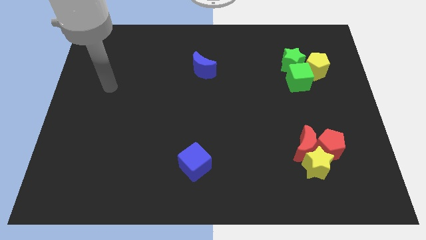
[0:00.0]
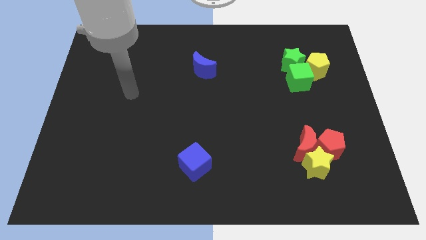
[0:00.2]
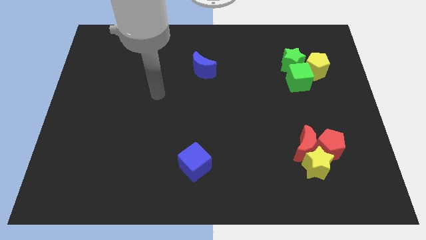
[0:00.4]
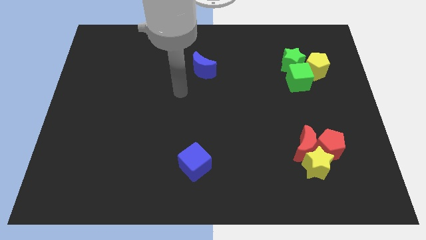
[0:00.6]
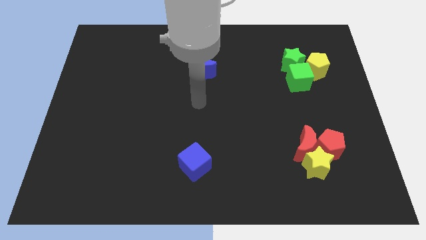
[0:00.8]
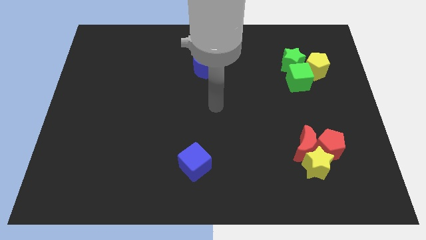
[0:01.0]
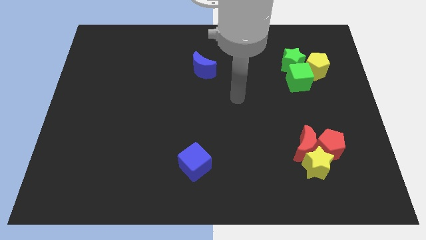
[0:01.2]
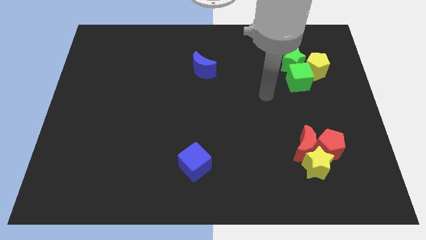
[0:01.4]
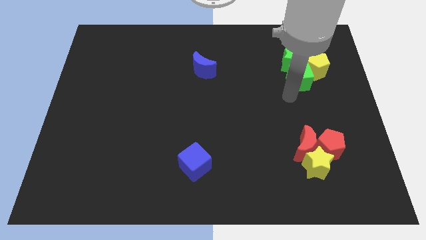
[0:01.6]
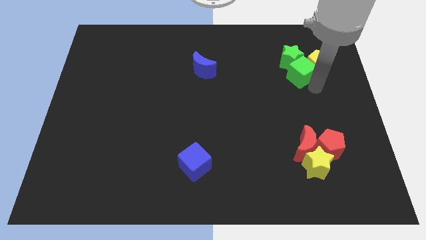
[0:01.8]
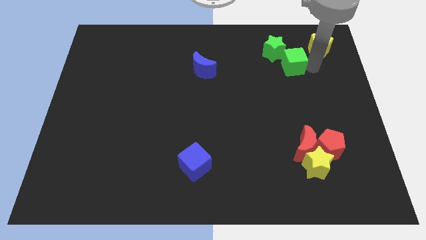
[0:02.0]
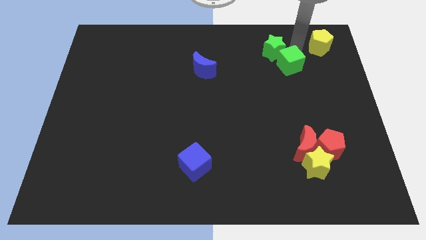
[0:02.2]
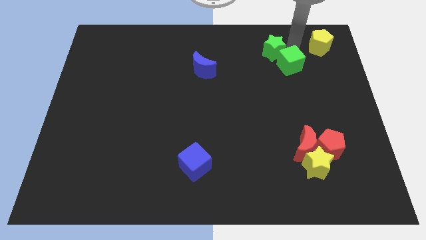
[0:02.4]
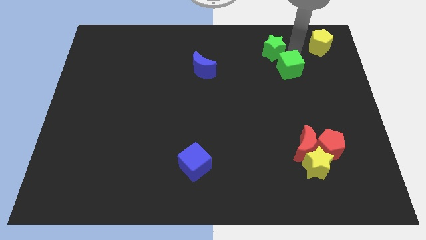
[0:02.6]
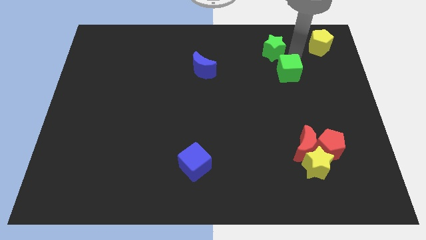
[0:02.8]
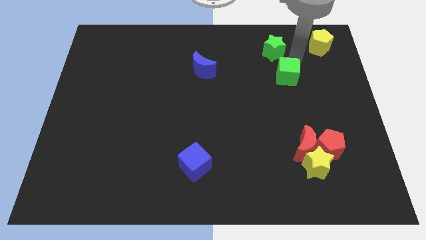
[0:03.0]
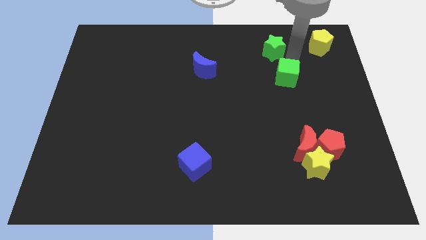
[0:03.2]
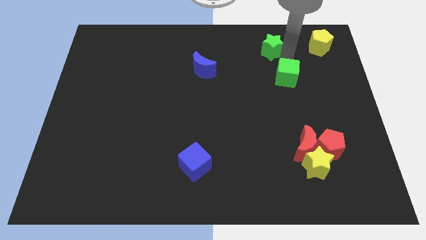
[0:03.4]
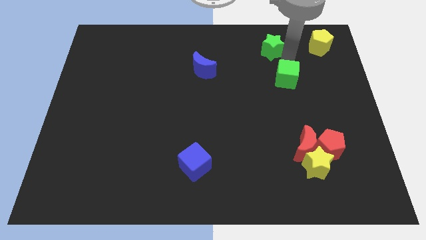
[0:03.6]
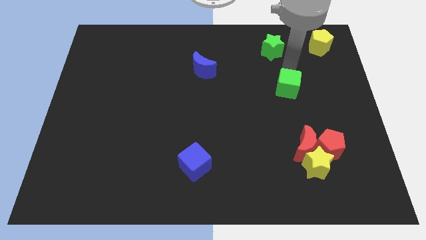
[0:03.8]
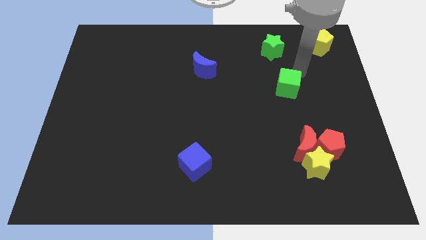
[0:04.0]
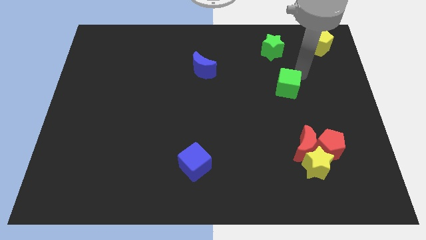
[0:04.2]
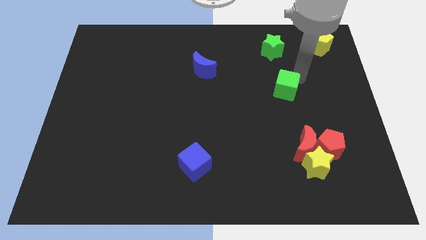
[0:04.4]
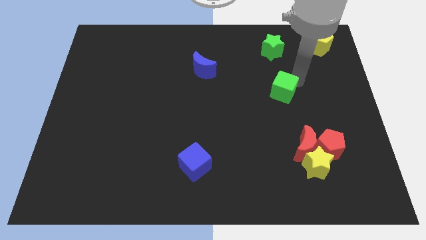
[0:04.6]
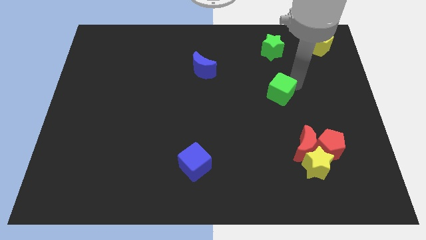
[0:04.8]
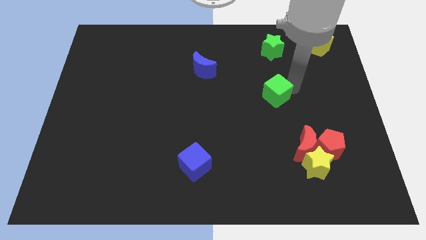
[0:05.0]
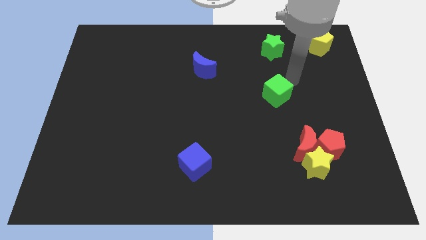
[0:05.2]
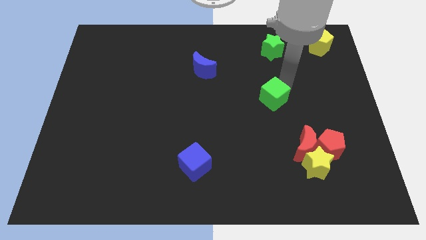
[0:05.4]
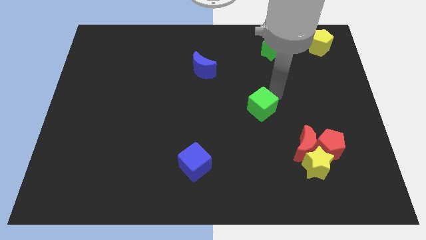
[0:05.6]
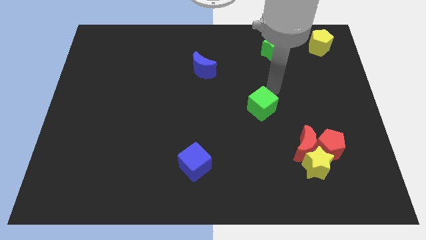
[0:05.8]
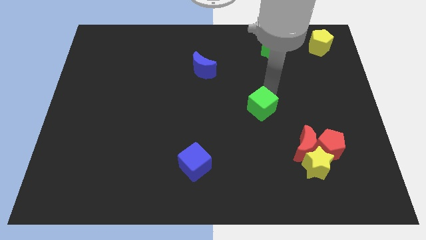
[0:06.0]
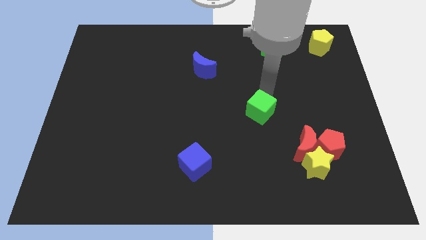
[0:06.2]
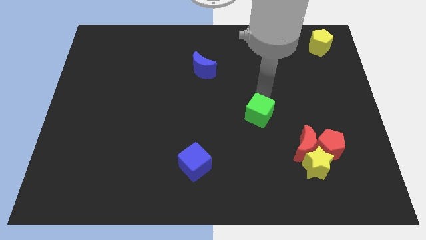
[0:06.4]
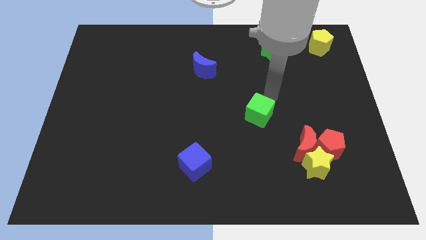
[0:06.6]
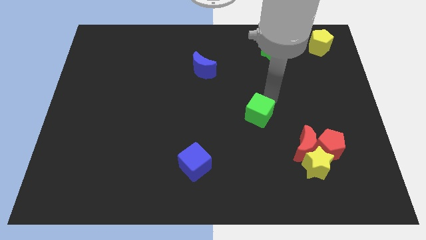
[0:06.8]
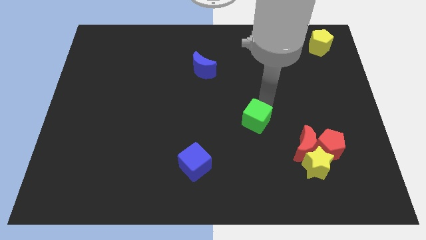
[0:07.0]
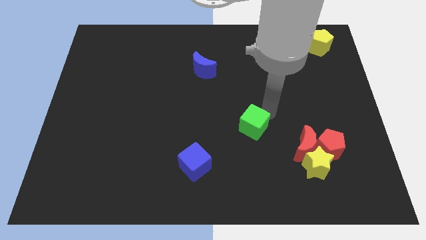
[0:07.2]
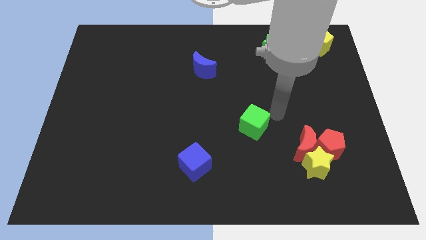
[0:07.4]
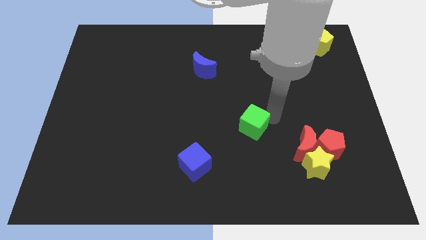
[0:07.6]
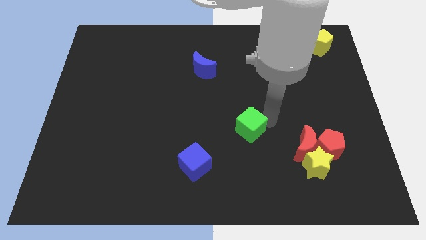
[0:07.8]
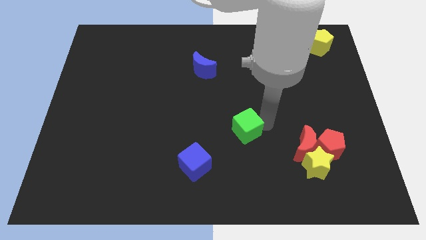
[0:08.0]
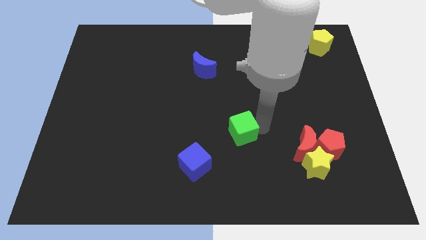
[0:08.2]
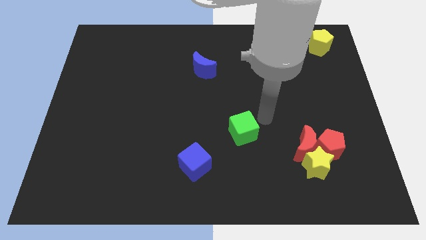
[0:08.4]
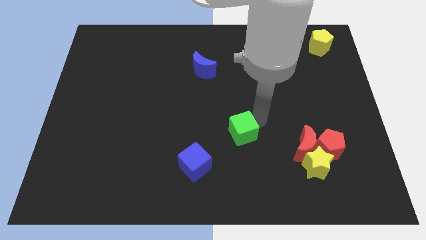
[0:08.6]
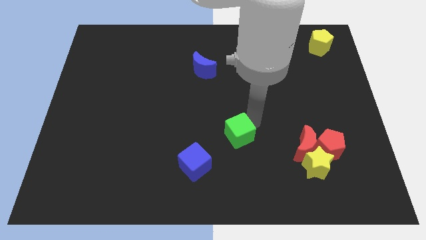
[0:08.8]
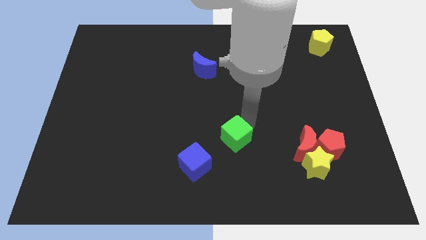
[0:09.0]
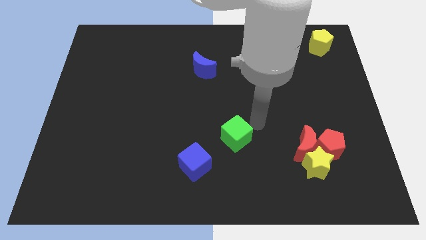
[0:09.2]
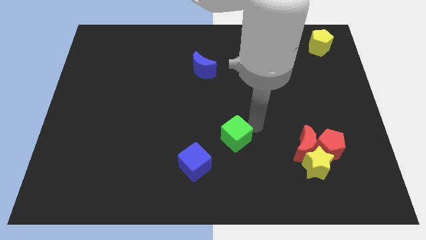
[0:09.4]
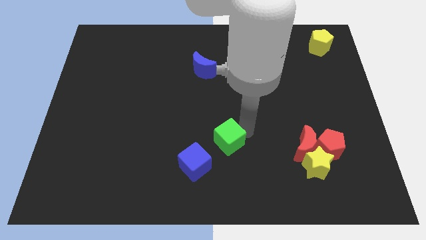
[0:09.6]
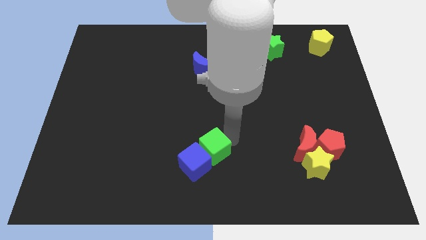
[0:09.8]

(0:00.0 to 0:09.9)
move the green cube close to the blue cube

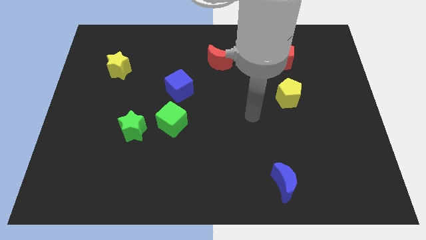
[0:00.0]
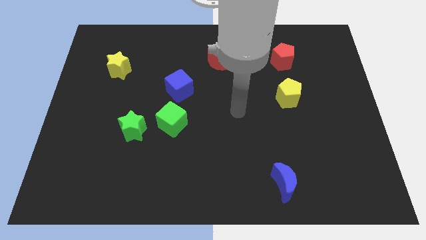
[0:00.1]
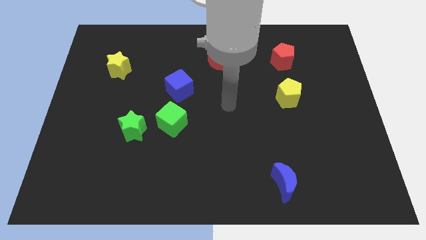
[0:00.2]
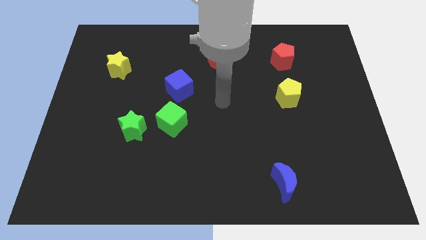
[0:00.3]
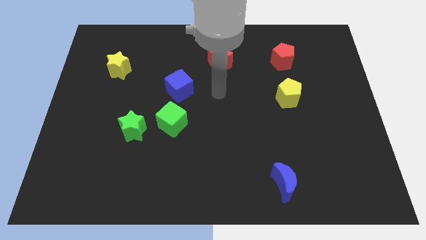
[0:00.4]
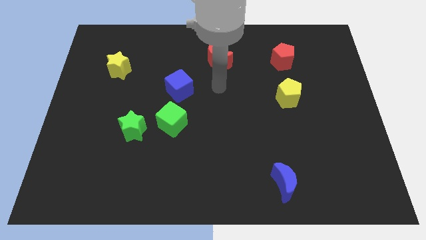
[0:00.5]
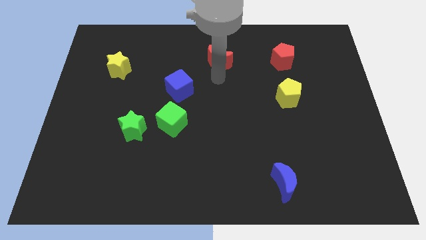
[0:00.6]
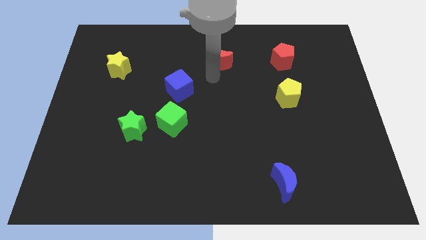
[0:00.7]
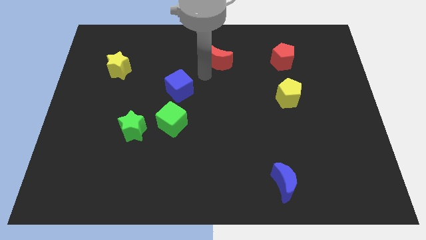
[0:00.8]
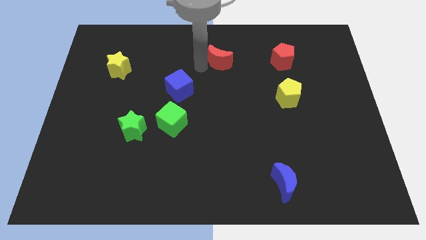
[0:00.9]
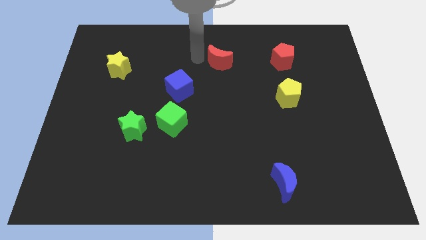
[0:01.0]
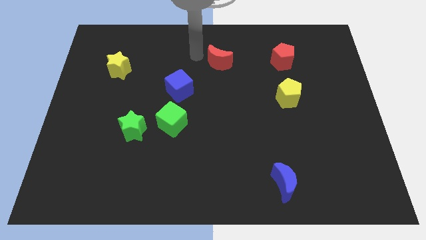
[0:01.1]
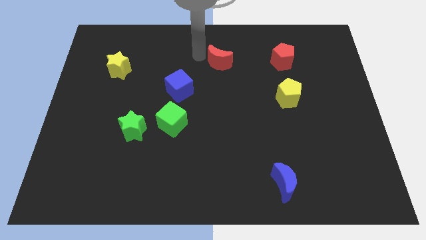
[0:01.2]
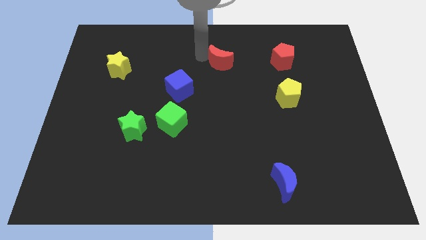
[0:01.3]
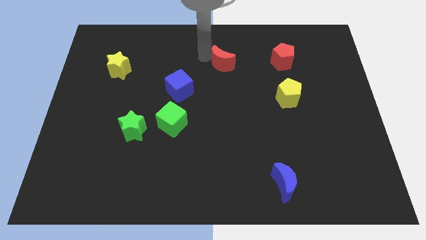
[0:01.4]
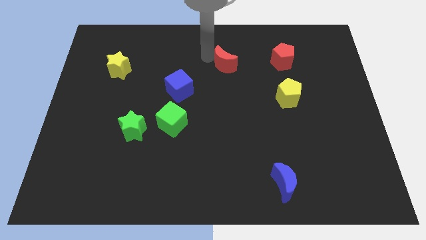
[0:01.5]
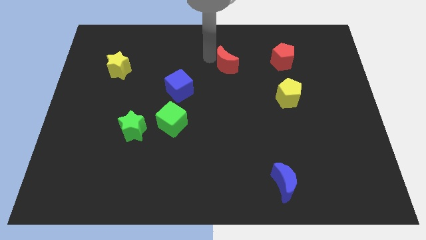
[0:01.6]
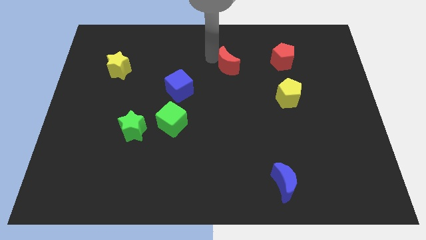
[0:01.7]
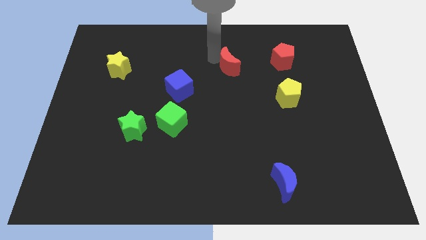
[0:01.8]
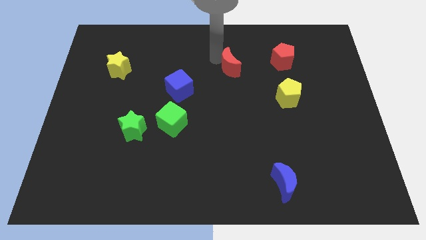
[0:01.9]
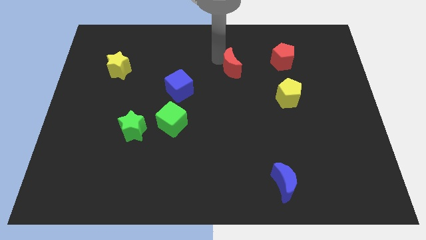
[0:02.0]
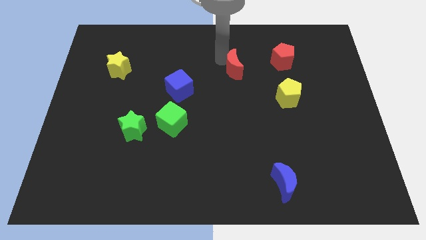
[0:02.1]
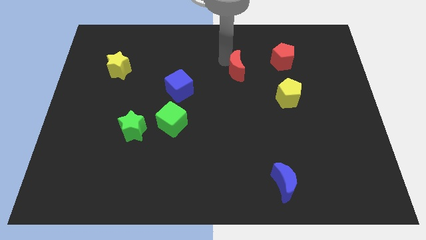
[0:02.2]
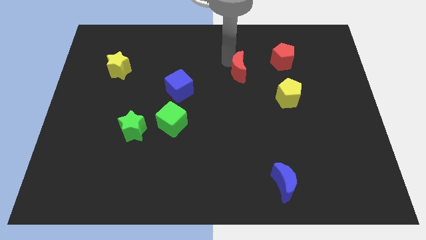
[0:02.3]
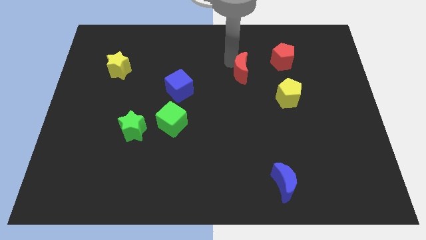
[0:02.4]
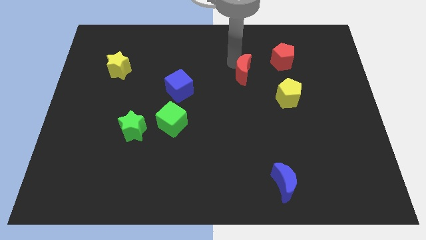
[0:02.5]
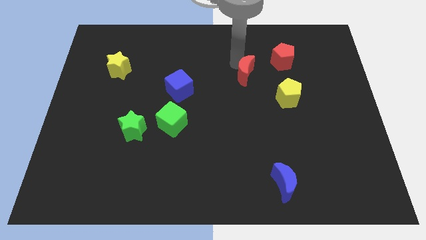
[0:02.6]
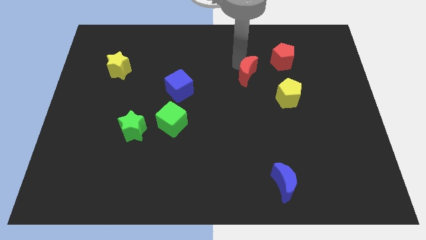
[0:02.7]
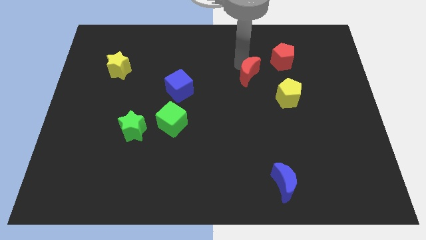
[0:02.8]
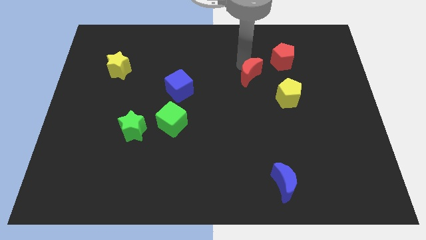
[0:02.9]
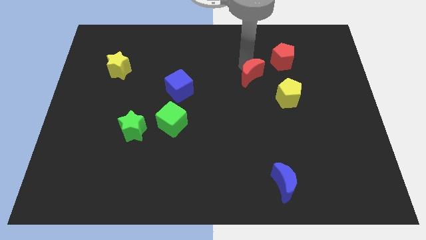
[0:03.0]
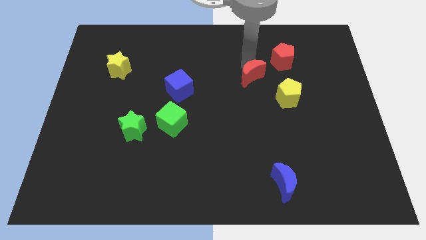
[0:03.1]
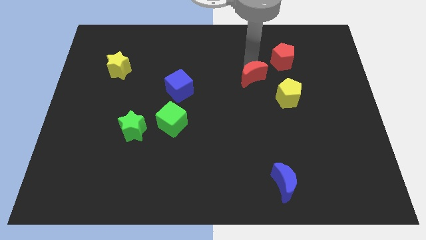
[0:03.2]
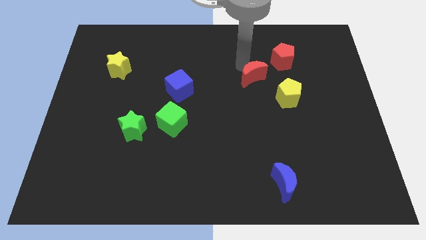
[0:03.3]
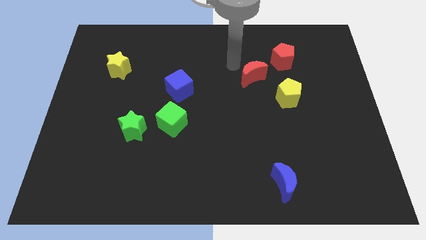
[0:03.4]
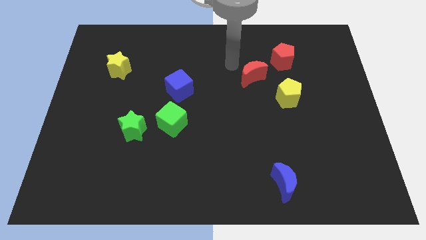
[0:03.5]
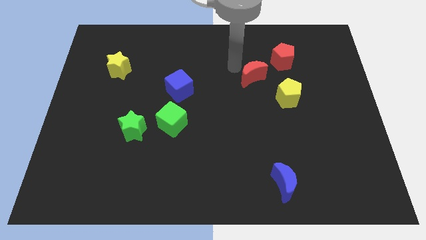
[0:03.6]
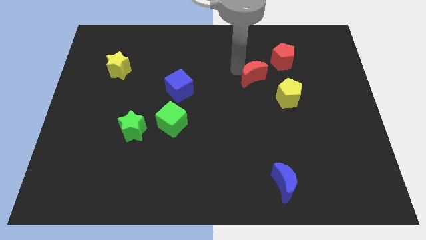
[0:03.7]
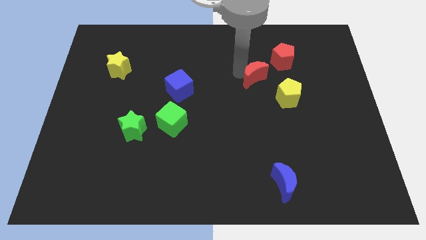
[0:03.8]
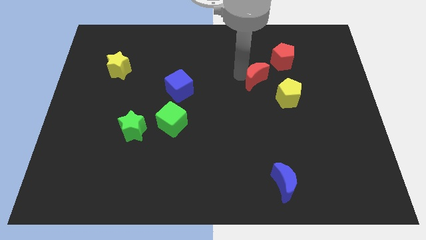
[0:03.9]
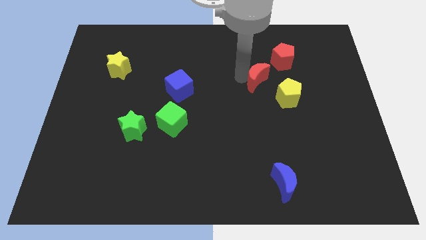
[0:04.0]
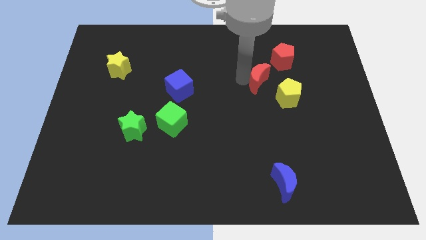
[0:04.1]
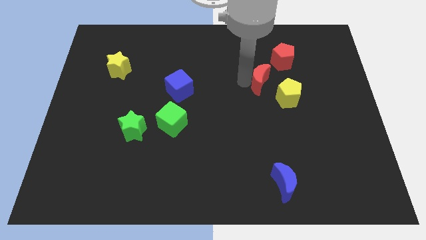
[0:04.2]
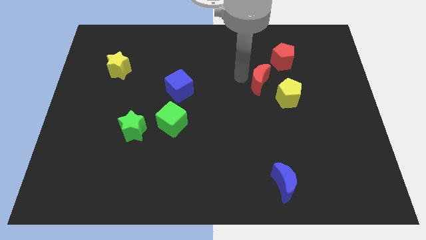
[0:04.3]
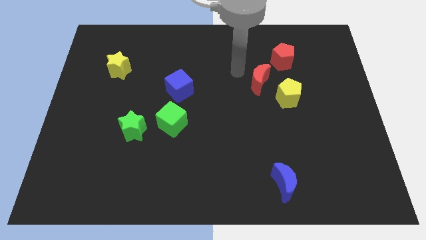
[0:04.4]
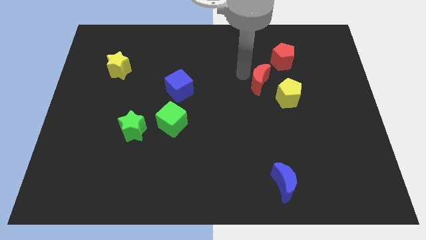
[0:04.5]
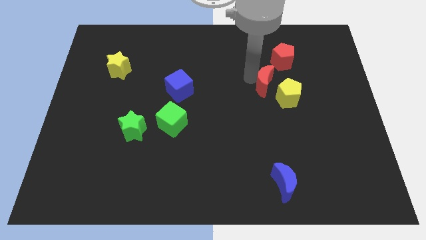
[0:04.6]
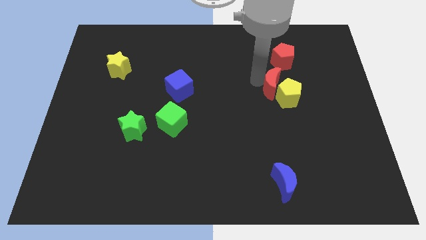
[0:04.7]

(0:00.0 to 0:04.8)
move the red moon next to the yellow pentagon
